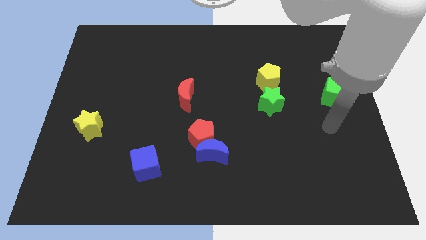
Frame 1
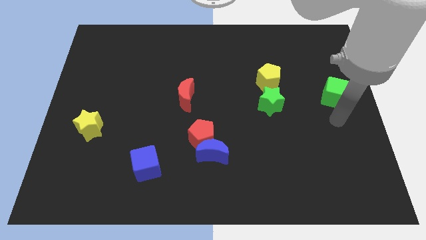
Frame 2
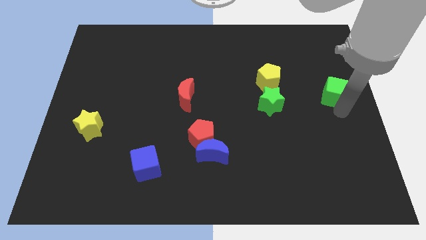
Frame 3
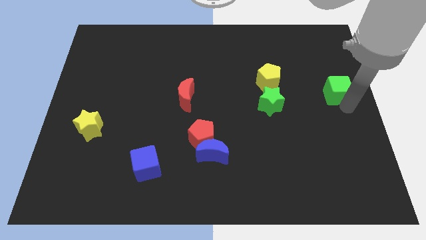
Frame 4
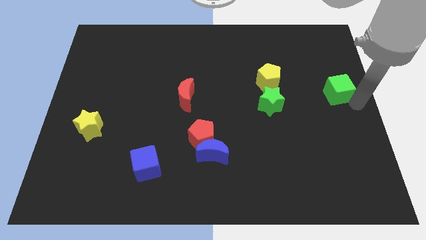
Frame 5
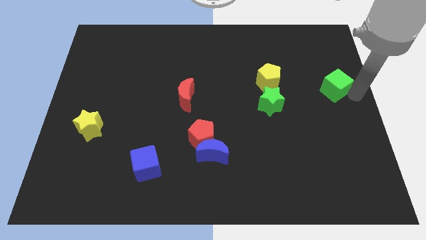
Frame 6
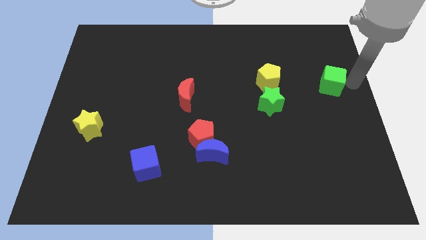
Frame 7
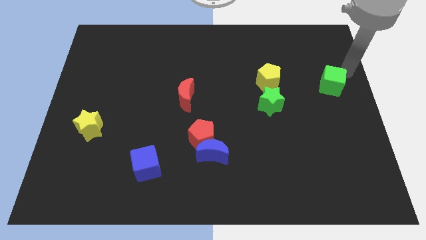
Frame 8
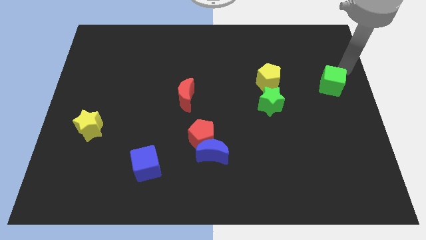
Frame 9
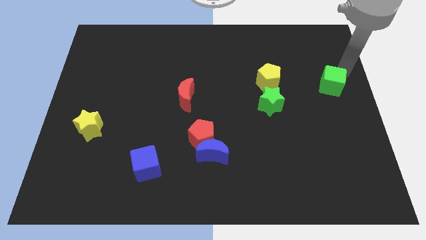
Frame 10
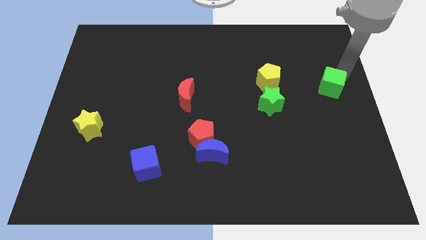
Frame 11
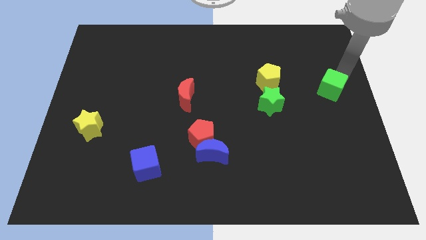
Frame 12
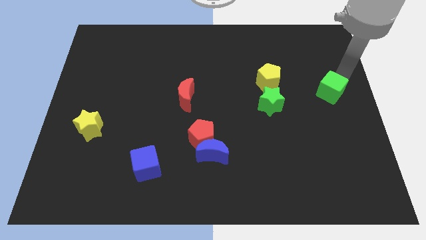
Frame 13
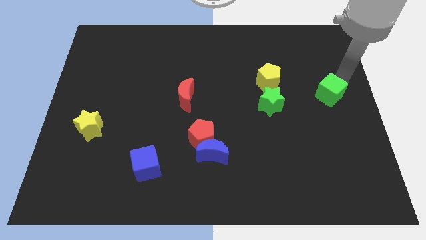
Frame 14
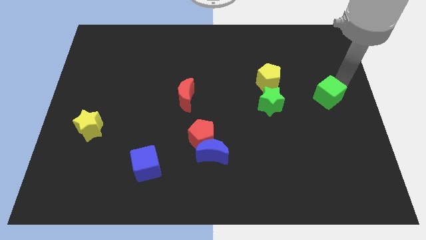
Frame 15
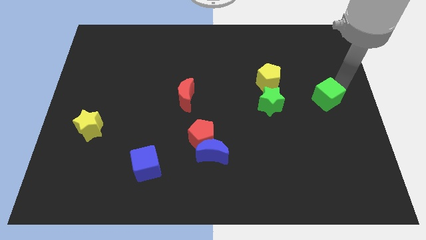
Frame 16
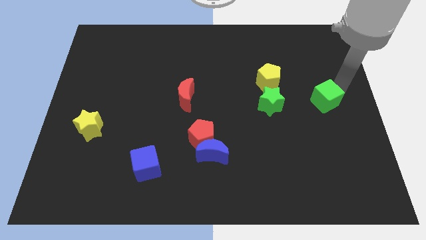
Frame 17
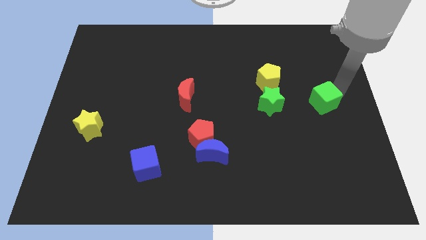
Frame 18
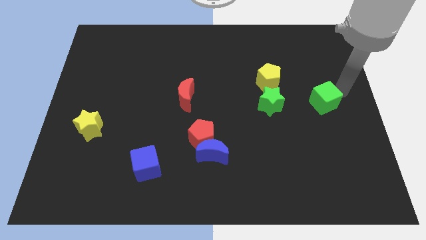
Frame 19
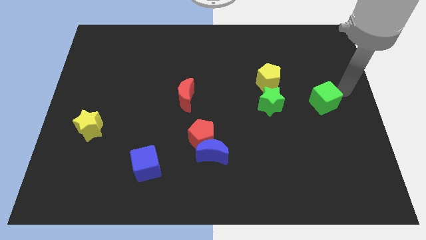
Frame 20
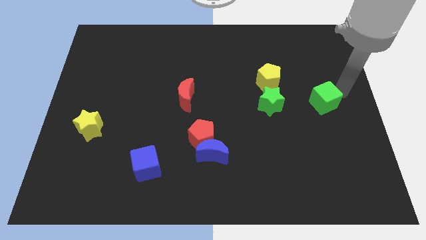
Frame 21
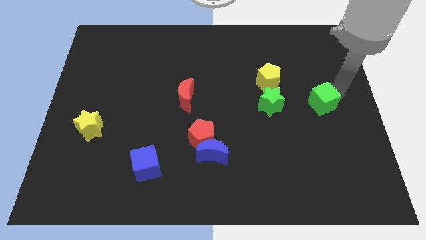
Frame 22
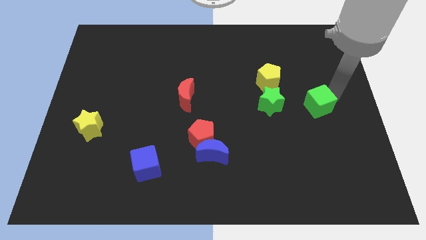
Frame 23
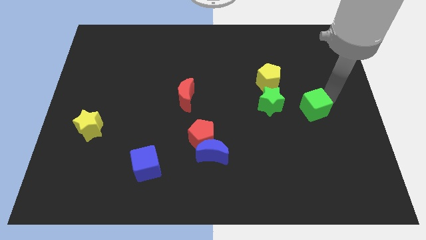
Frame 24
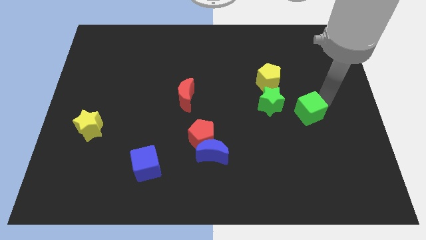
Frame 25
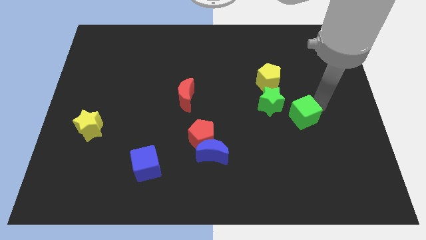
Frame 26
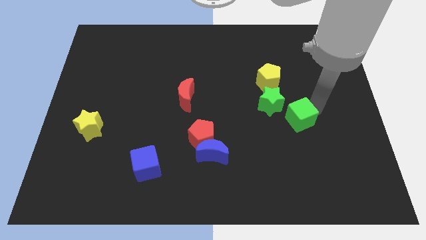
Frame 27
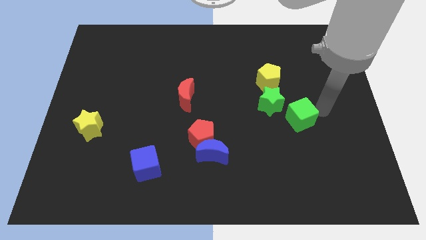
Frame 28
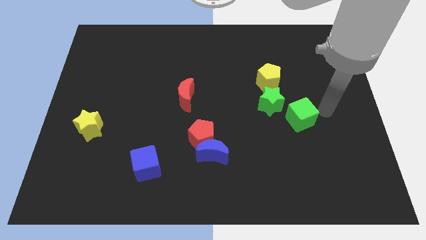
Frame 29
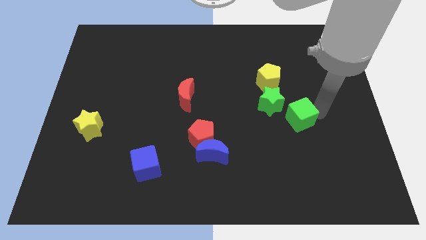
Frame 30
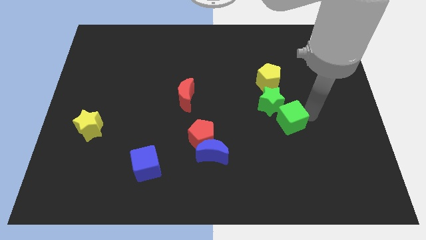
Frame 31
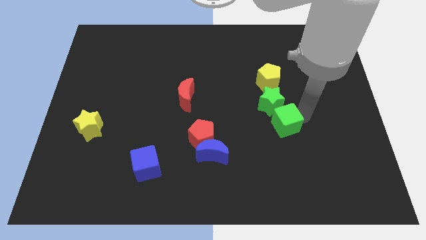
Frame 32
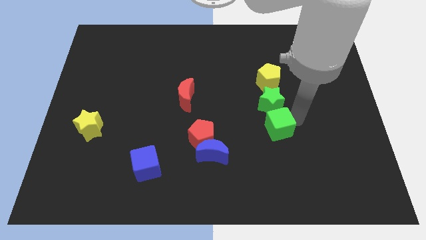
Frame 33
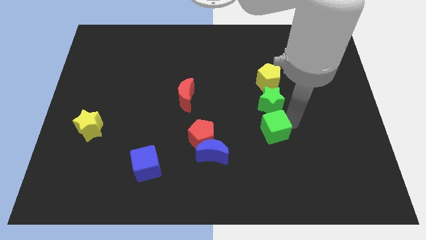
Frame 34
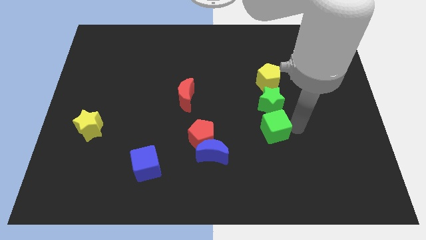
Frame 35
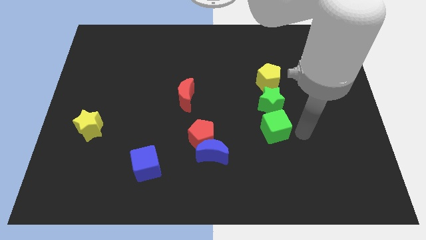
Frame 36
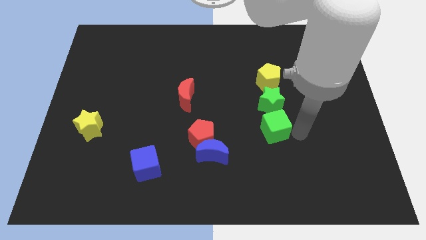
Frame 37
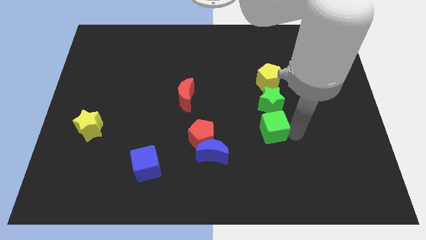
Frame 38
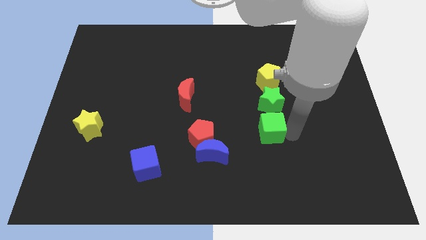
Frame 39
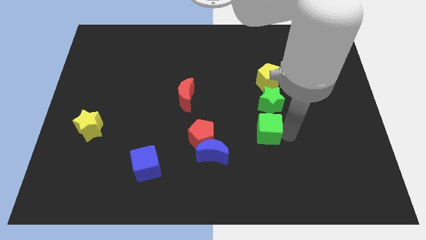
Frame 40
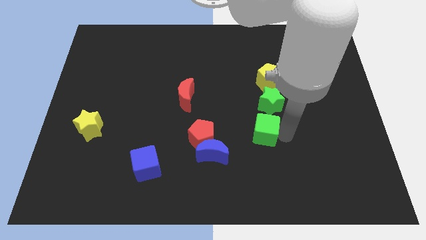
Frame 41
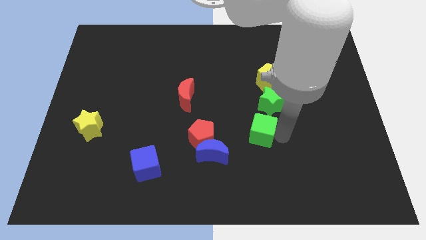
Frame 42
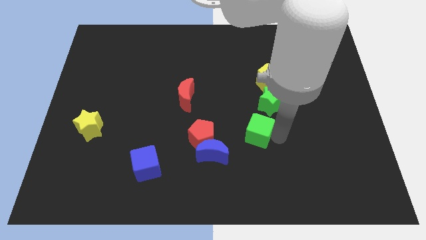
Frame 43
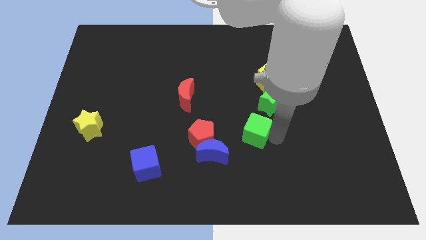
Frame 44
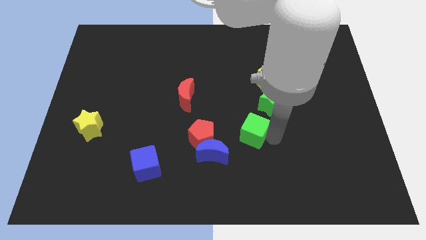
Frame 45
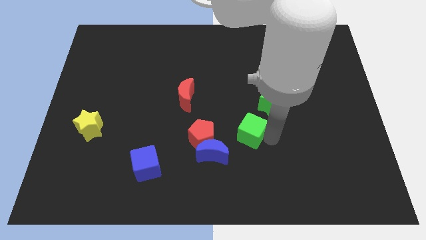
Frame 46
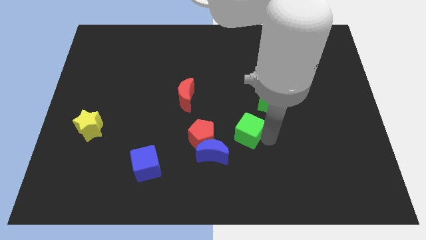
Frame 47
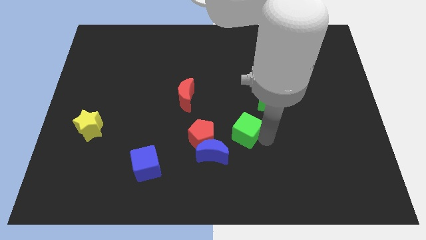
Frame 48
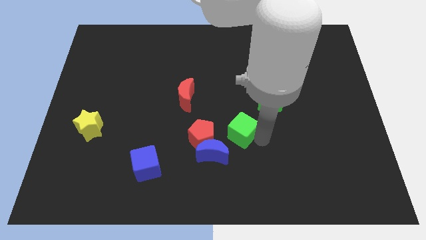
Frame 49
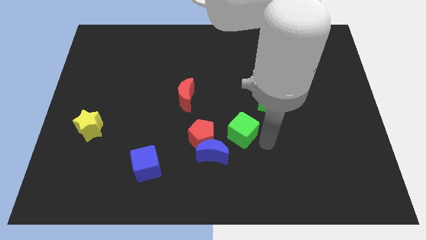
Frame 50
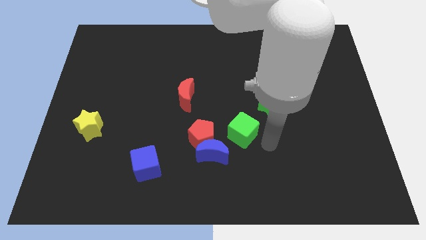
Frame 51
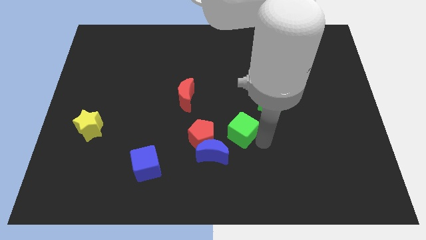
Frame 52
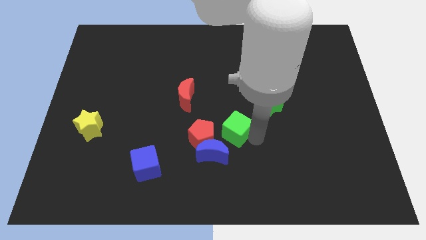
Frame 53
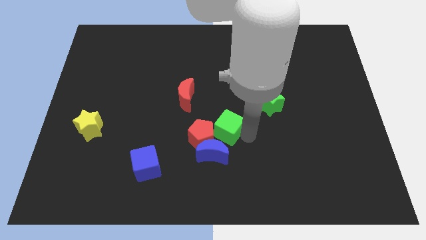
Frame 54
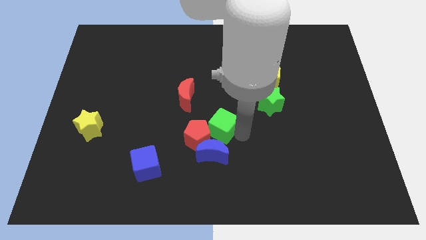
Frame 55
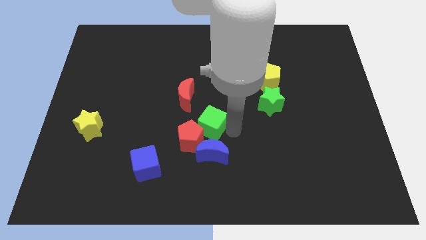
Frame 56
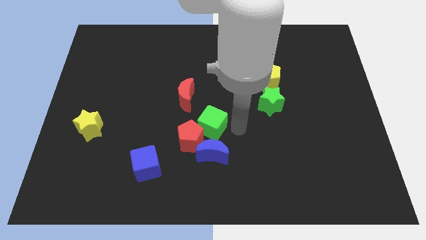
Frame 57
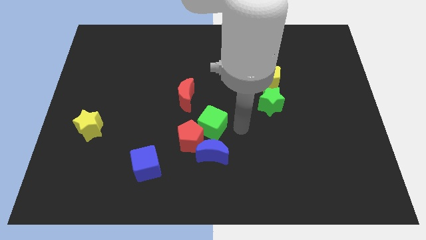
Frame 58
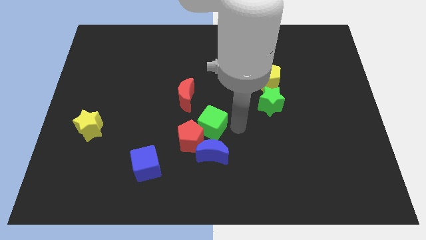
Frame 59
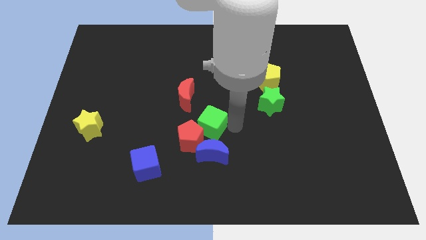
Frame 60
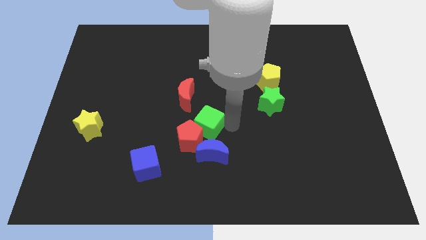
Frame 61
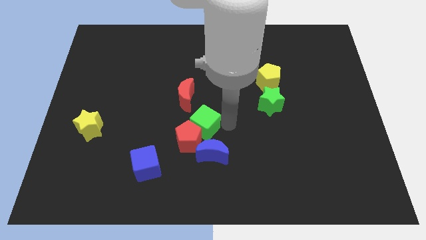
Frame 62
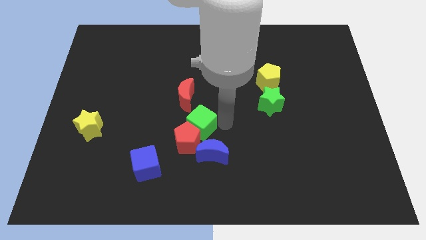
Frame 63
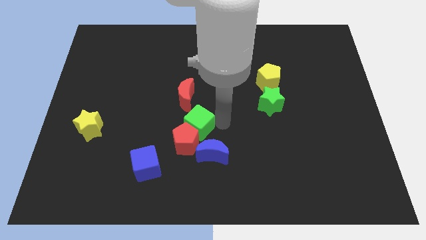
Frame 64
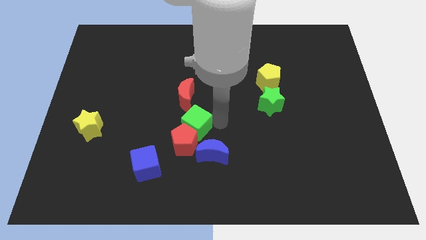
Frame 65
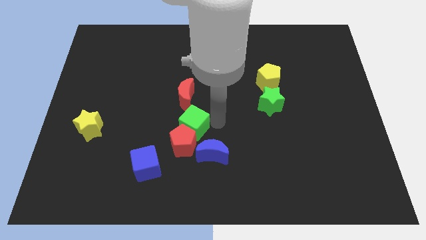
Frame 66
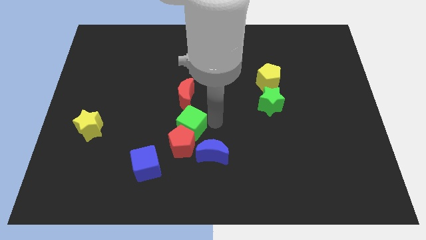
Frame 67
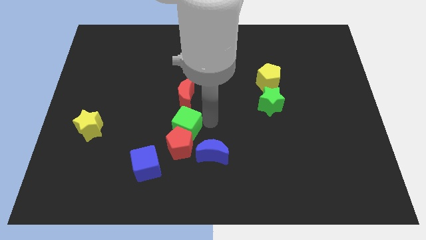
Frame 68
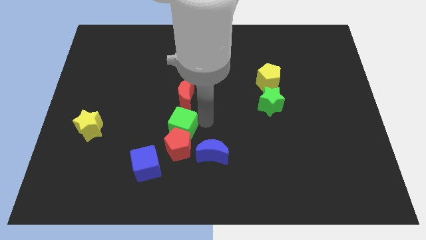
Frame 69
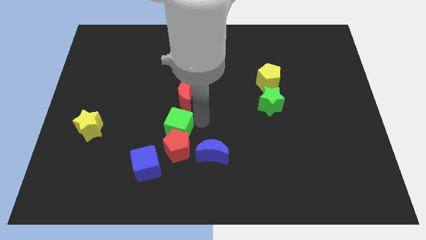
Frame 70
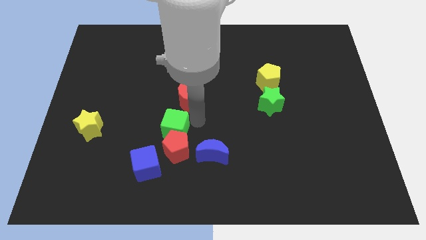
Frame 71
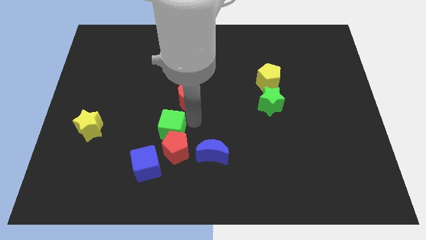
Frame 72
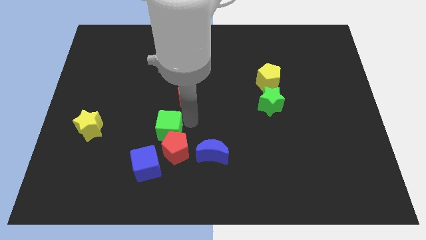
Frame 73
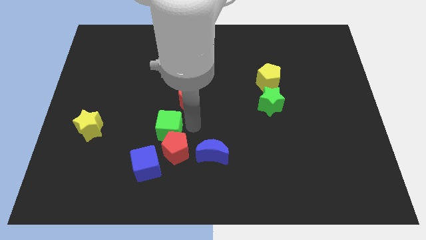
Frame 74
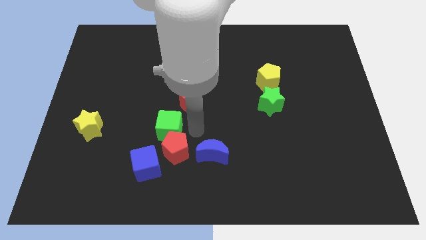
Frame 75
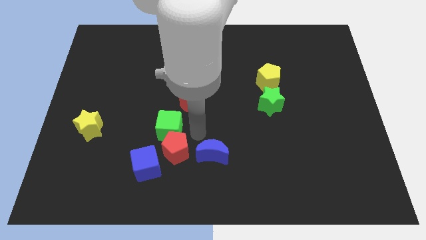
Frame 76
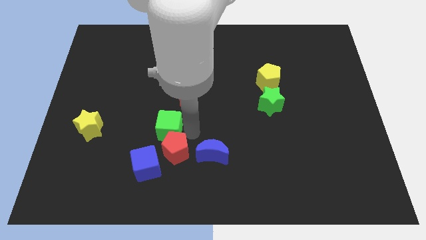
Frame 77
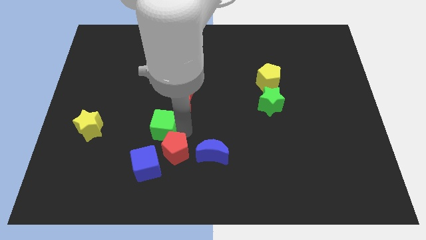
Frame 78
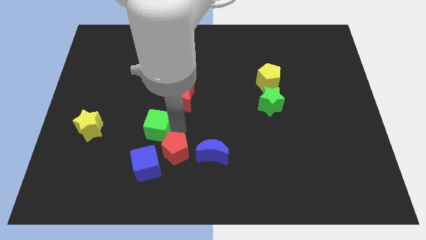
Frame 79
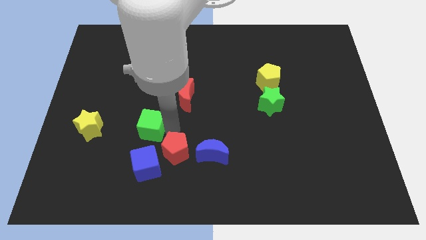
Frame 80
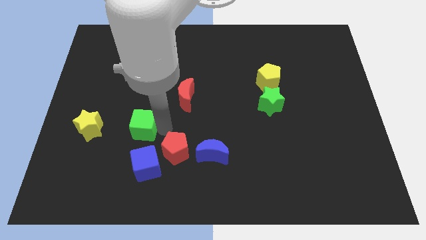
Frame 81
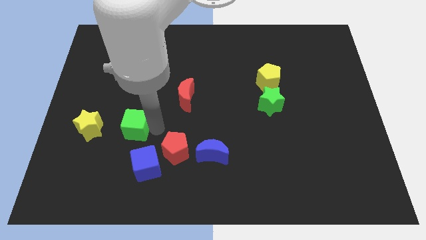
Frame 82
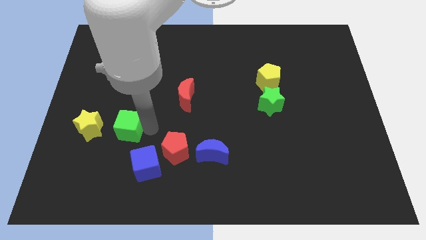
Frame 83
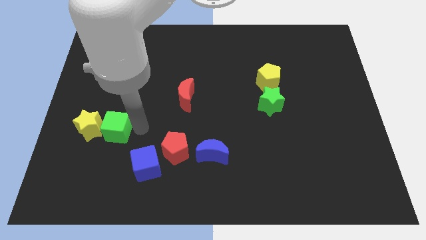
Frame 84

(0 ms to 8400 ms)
push the green cube next to the yellow star
